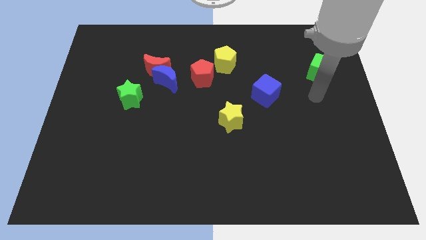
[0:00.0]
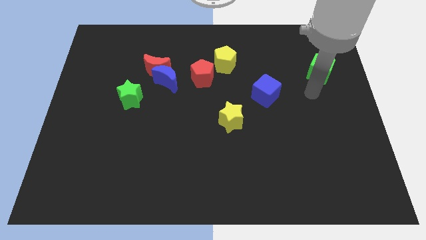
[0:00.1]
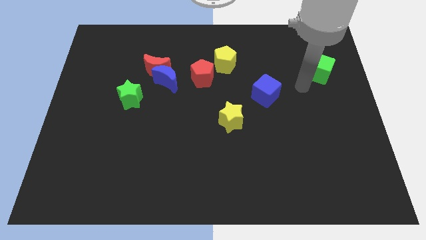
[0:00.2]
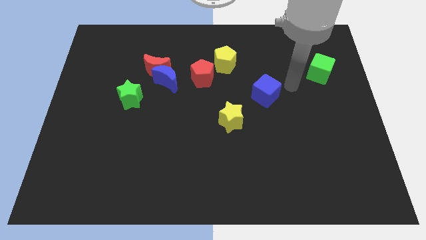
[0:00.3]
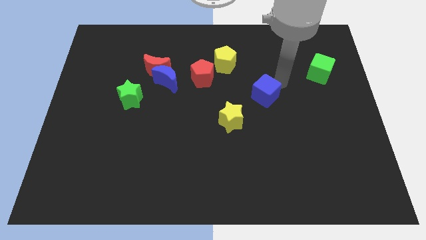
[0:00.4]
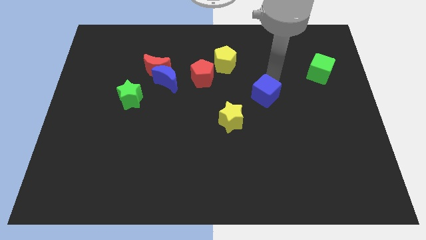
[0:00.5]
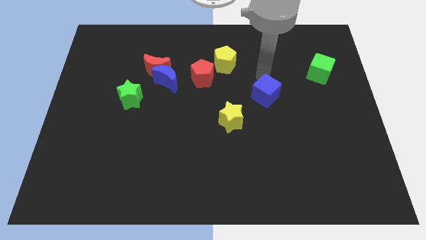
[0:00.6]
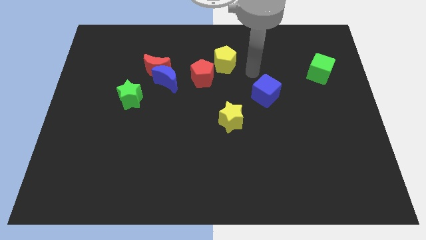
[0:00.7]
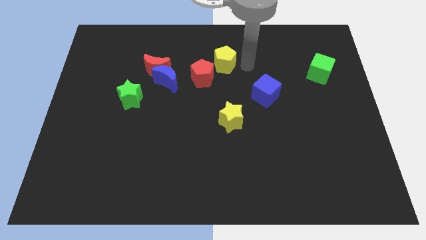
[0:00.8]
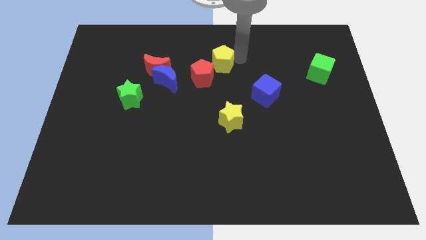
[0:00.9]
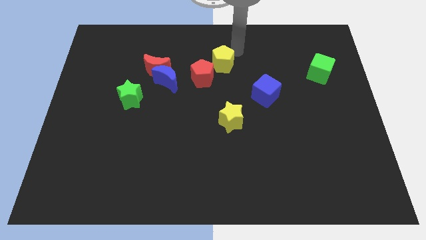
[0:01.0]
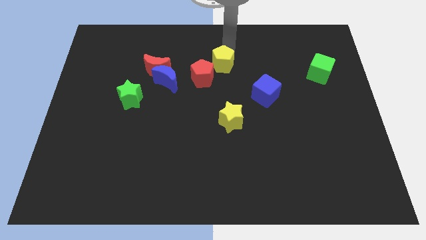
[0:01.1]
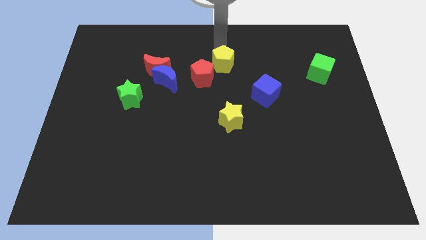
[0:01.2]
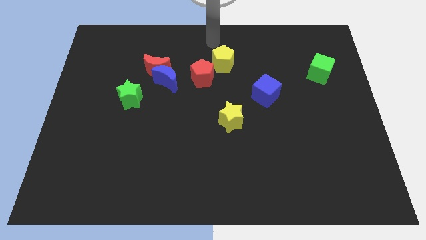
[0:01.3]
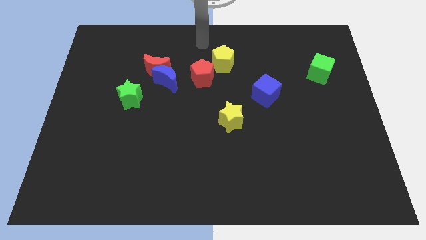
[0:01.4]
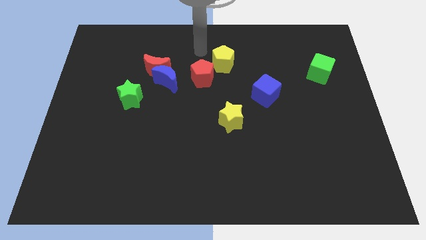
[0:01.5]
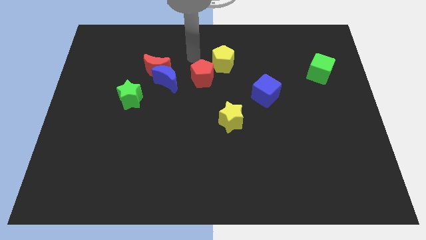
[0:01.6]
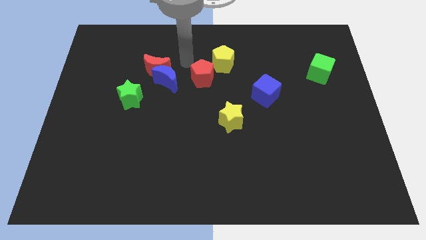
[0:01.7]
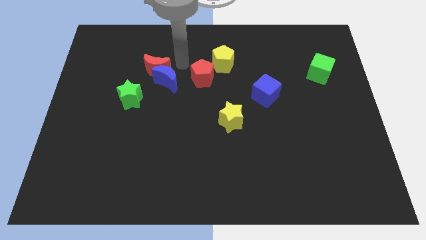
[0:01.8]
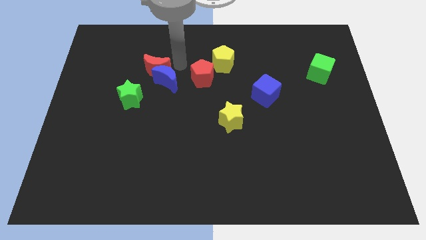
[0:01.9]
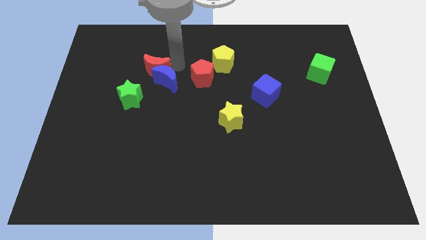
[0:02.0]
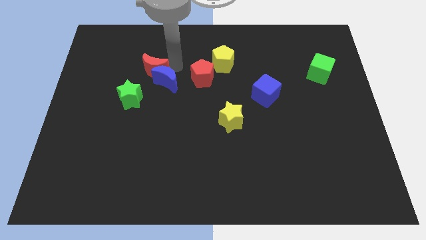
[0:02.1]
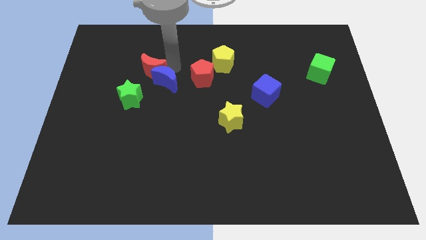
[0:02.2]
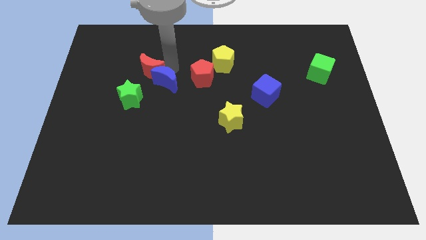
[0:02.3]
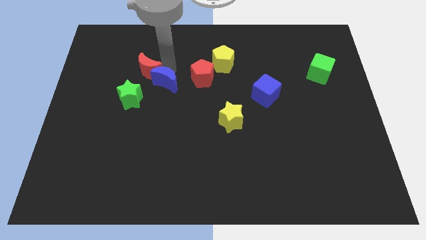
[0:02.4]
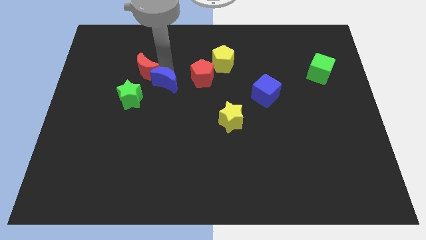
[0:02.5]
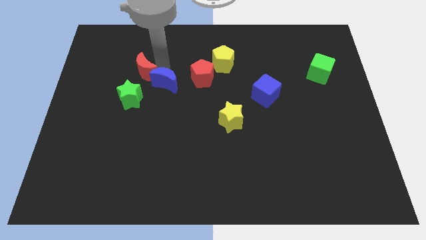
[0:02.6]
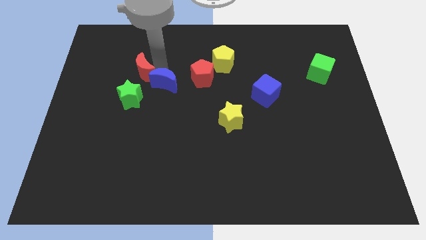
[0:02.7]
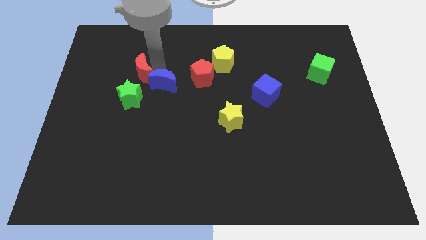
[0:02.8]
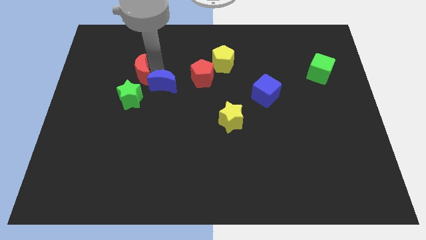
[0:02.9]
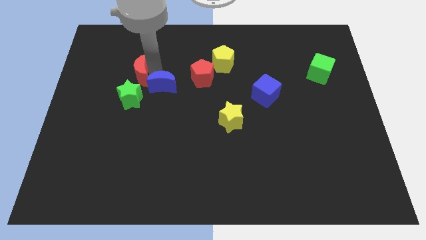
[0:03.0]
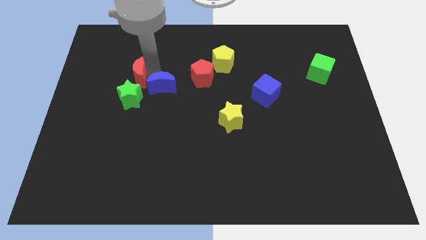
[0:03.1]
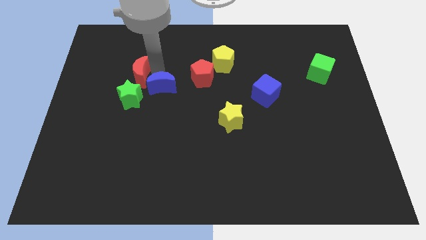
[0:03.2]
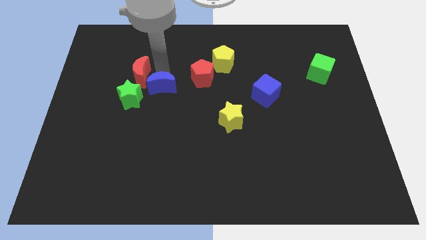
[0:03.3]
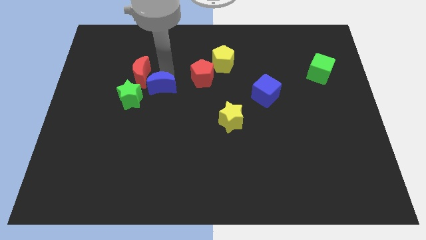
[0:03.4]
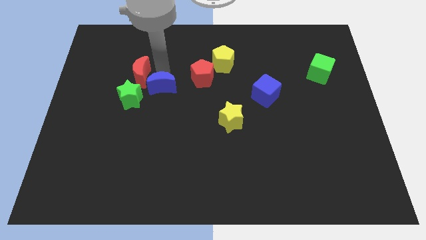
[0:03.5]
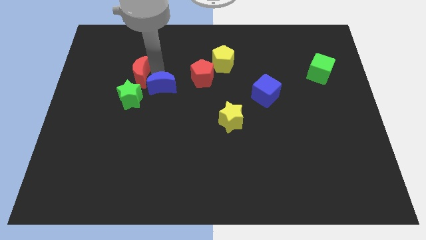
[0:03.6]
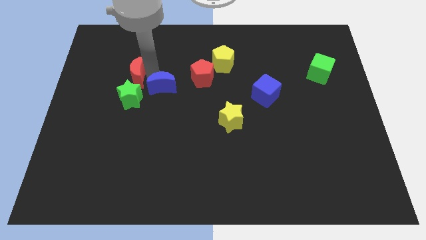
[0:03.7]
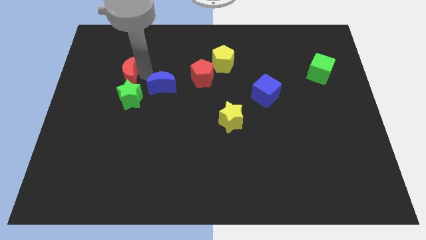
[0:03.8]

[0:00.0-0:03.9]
move the red moon to the top left side of the green star

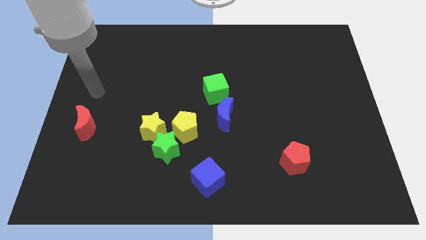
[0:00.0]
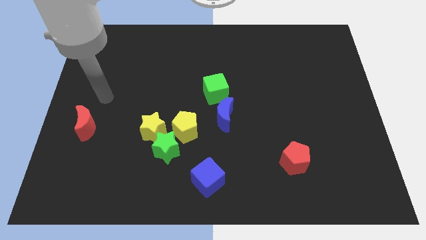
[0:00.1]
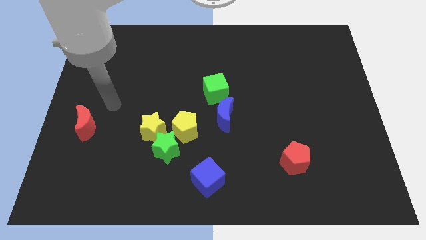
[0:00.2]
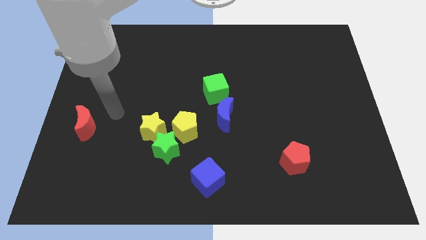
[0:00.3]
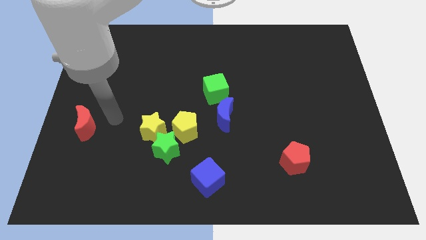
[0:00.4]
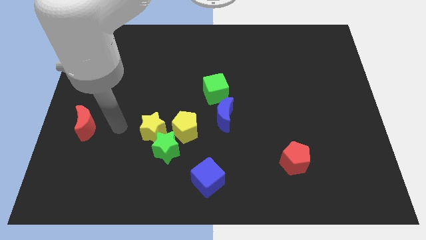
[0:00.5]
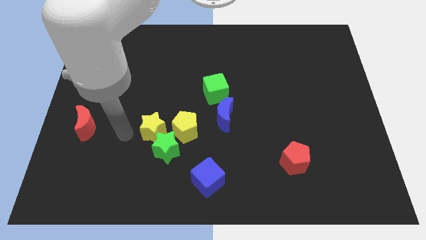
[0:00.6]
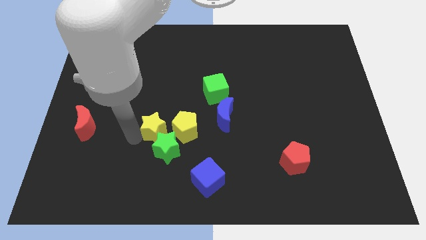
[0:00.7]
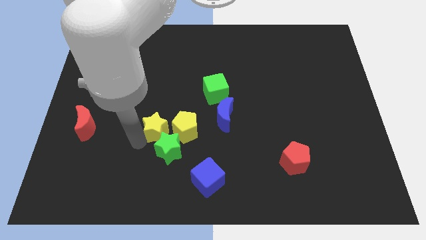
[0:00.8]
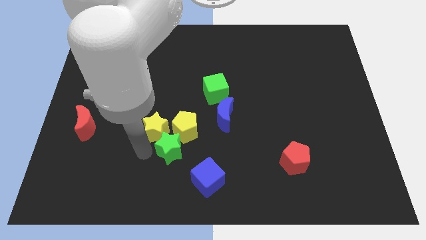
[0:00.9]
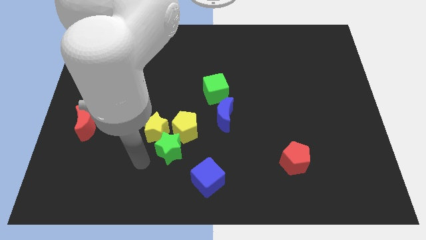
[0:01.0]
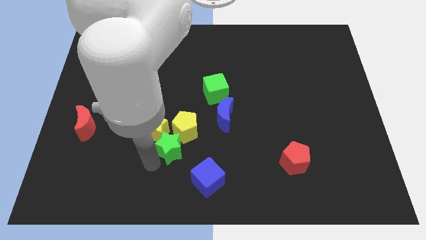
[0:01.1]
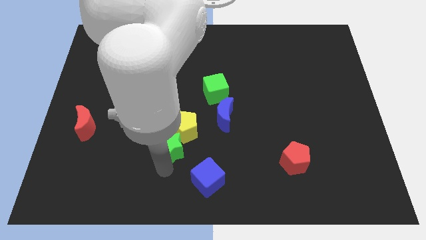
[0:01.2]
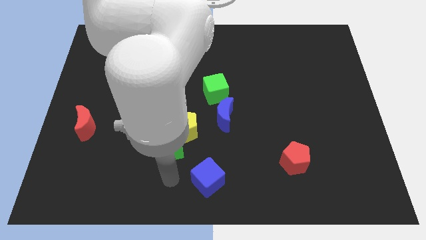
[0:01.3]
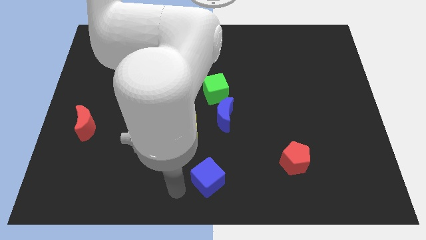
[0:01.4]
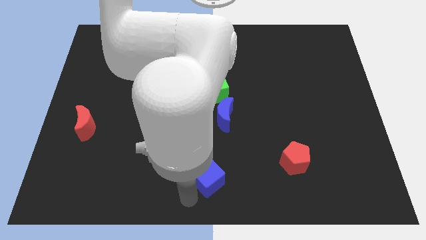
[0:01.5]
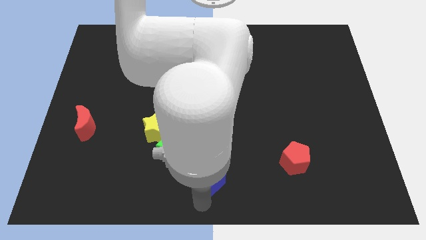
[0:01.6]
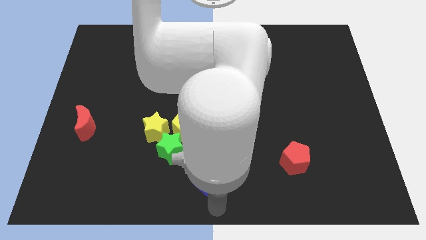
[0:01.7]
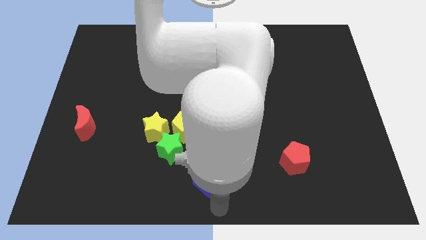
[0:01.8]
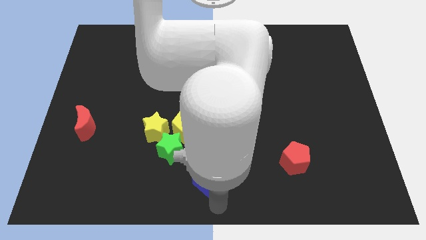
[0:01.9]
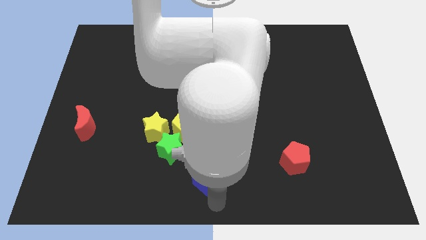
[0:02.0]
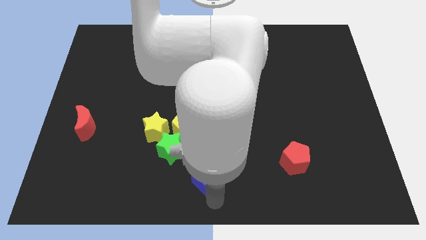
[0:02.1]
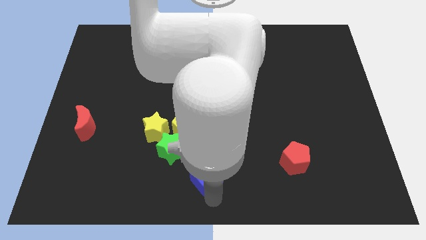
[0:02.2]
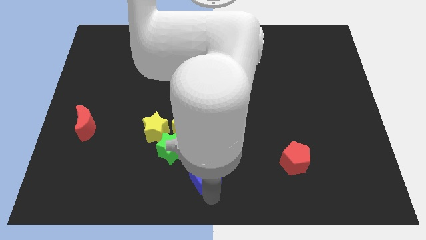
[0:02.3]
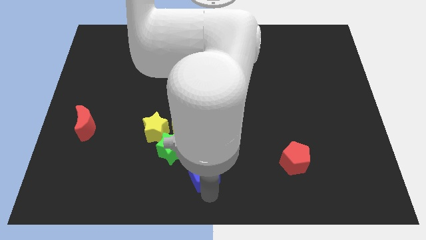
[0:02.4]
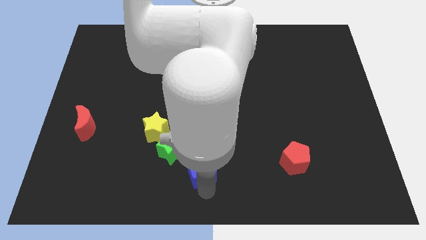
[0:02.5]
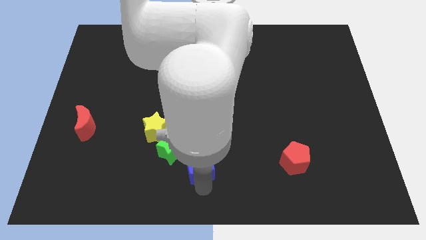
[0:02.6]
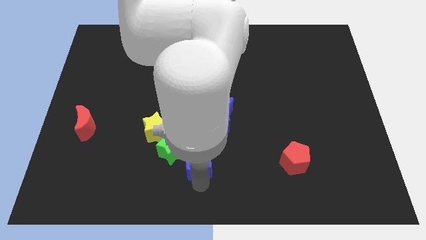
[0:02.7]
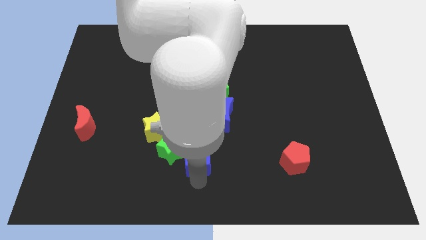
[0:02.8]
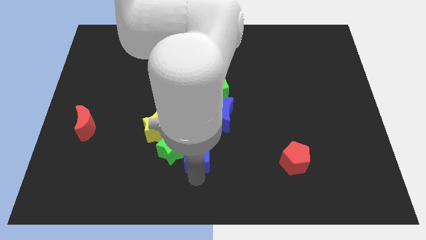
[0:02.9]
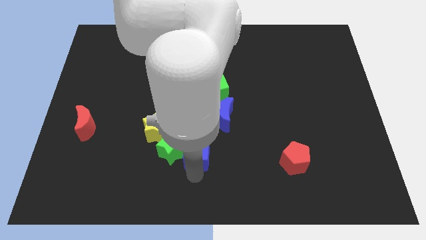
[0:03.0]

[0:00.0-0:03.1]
put the blue cube to the bottom left side of the blue moon

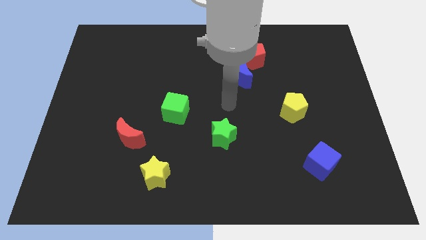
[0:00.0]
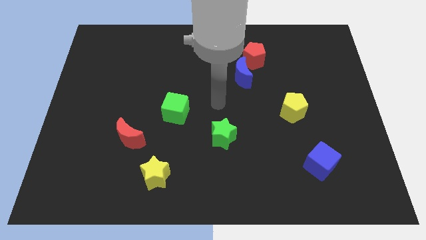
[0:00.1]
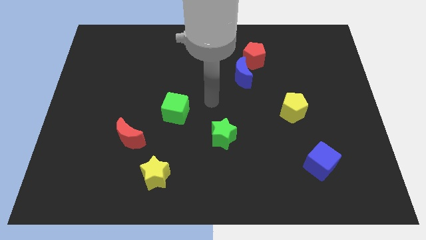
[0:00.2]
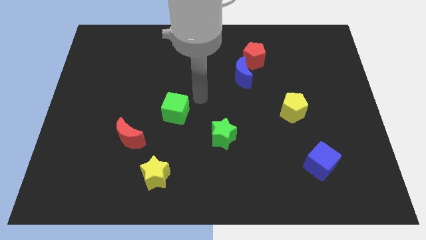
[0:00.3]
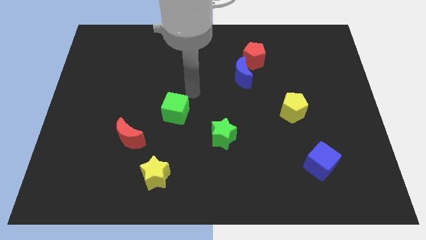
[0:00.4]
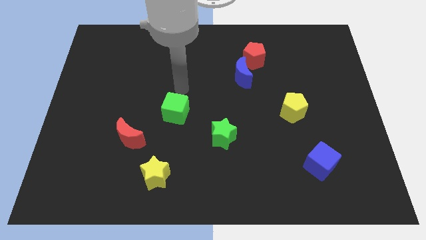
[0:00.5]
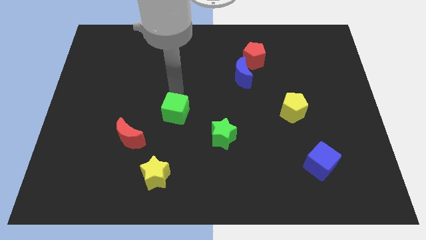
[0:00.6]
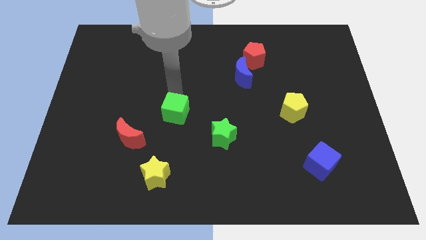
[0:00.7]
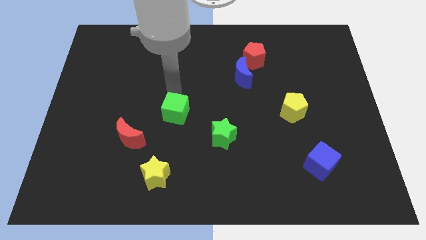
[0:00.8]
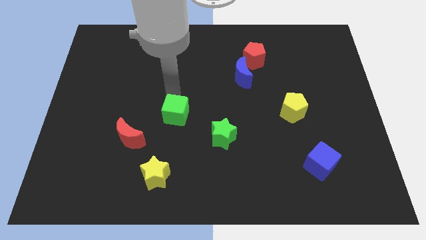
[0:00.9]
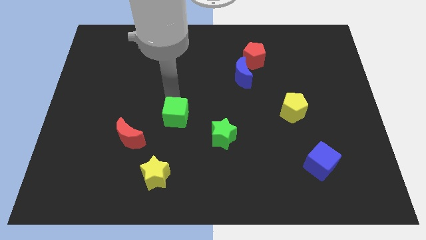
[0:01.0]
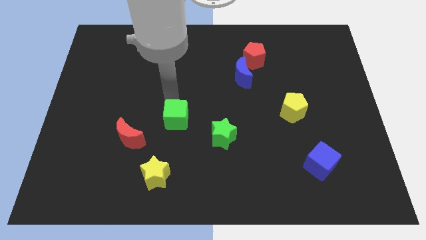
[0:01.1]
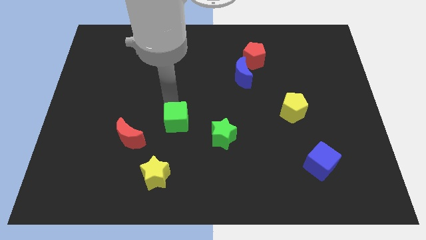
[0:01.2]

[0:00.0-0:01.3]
push the green cube to the right side of the red moon

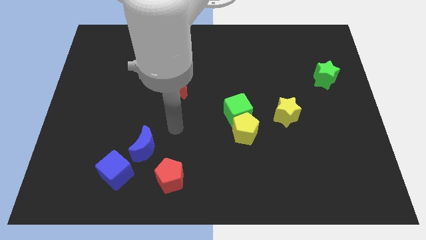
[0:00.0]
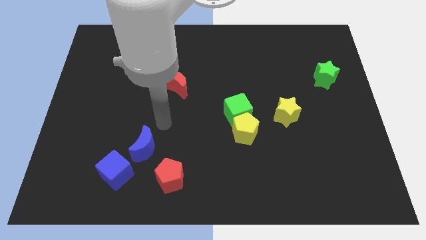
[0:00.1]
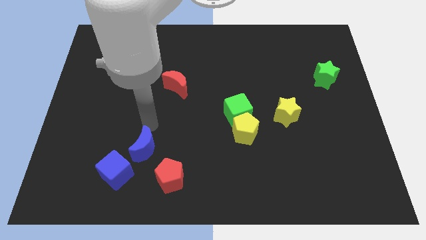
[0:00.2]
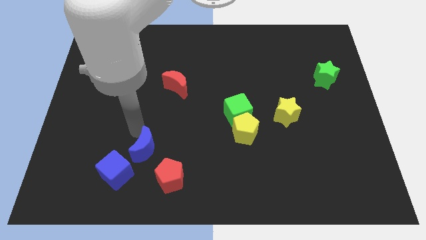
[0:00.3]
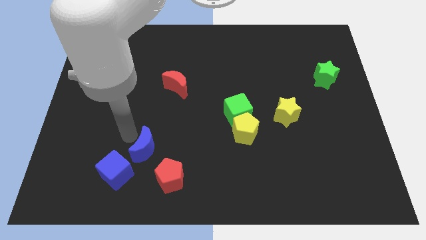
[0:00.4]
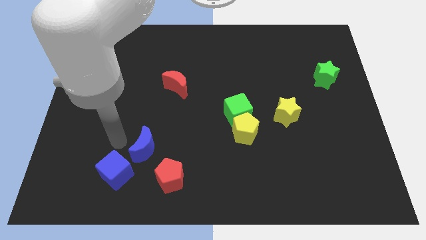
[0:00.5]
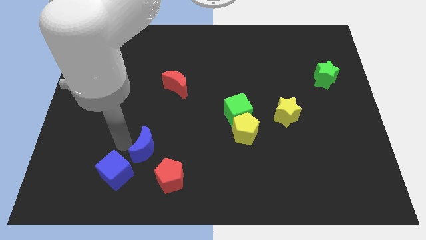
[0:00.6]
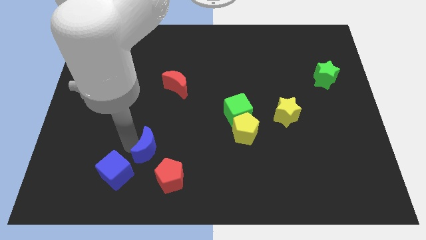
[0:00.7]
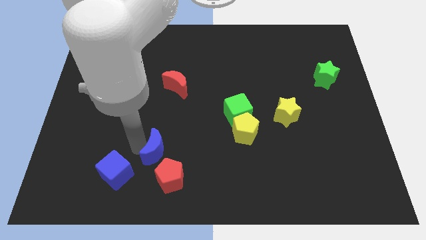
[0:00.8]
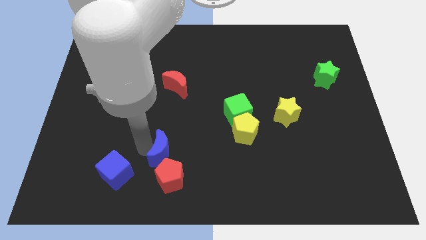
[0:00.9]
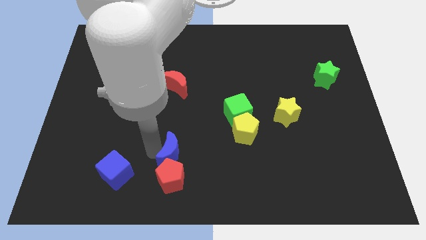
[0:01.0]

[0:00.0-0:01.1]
move the blue moon to the top right of the red pentagon
